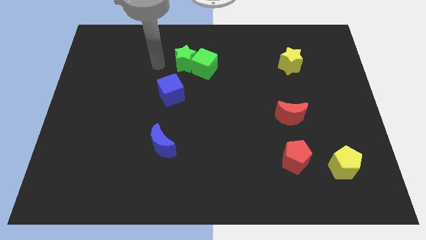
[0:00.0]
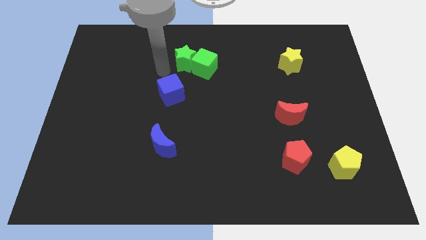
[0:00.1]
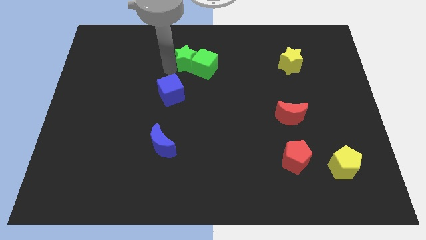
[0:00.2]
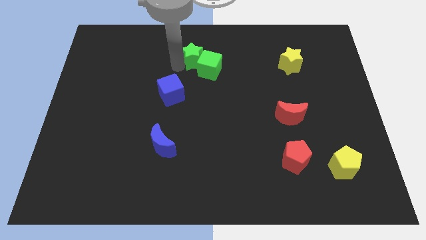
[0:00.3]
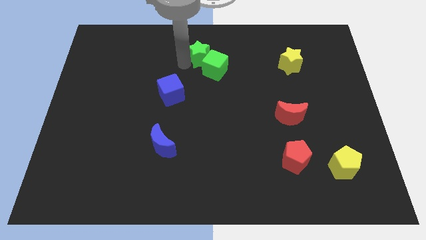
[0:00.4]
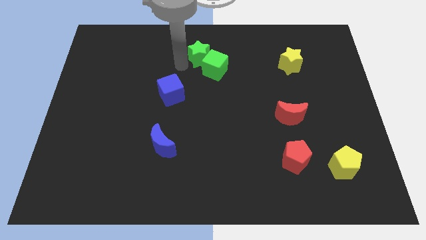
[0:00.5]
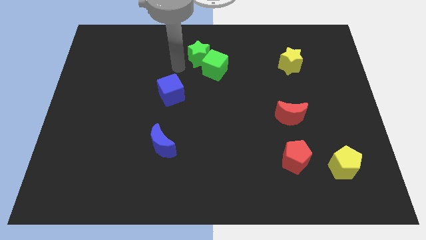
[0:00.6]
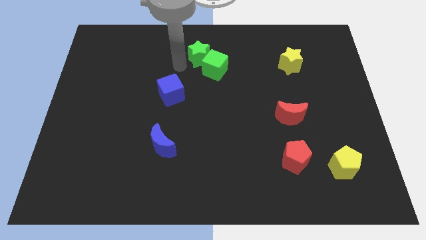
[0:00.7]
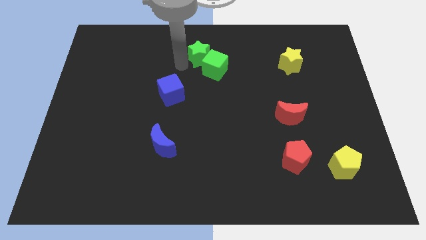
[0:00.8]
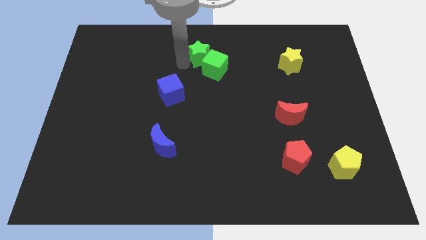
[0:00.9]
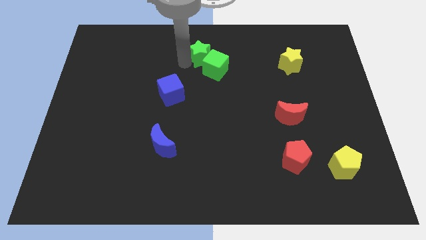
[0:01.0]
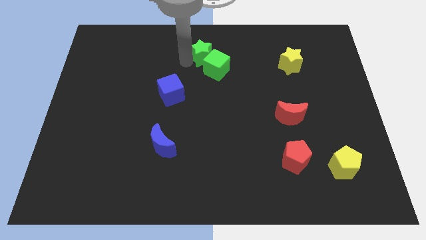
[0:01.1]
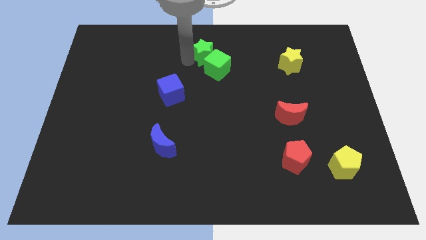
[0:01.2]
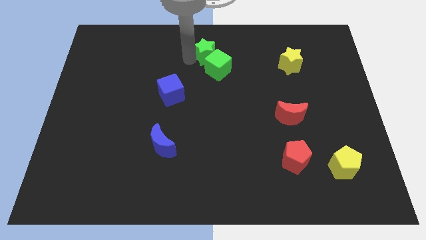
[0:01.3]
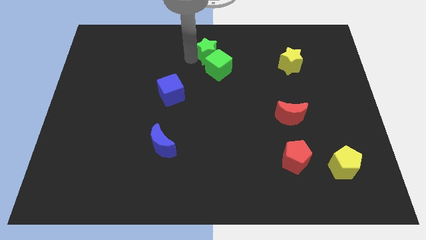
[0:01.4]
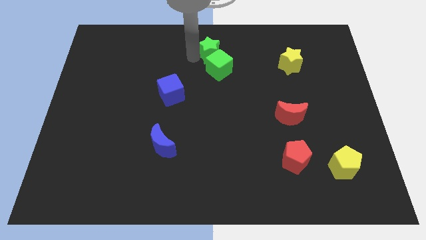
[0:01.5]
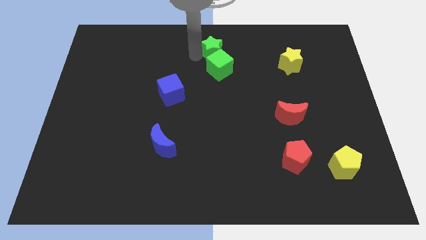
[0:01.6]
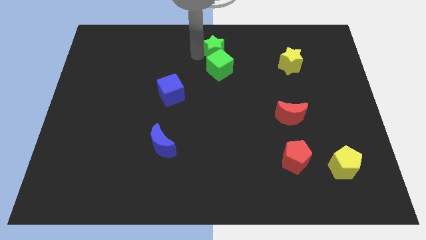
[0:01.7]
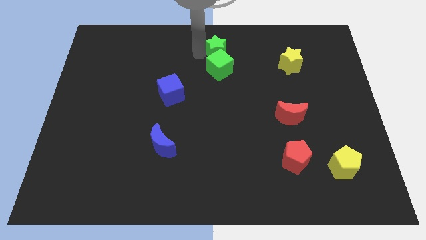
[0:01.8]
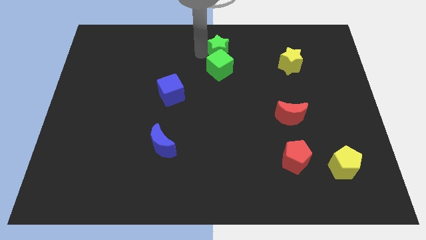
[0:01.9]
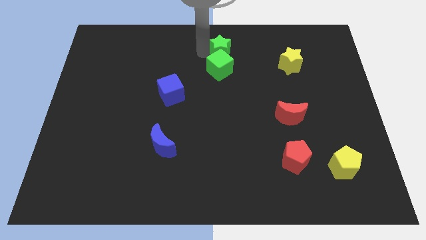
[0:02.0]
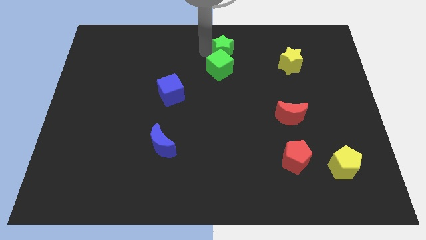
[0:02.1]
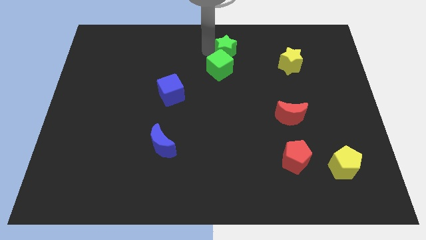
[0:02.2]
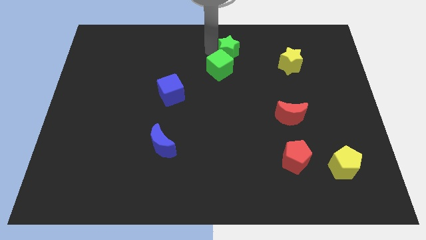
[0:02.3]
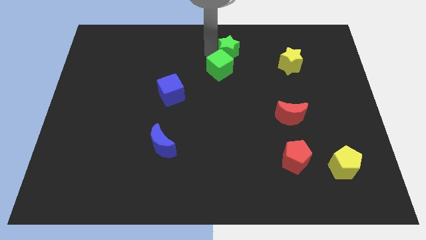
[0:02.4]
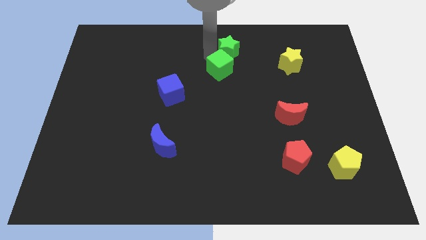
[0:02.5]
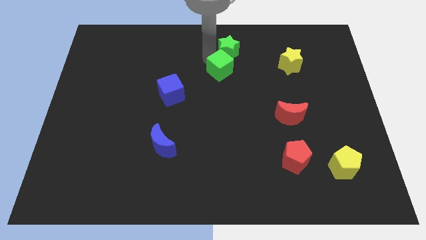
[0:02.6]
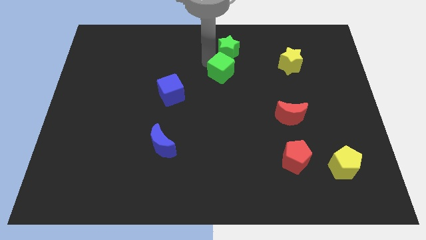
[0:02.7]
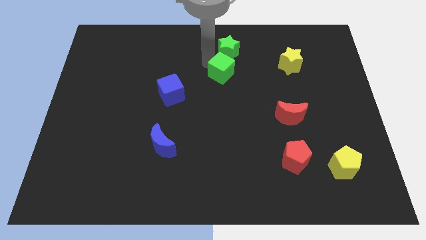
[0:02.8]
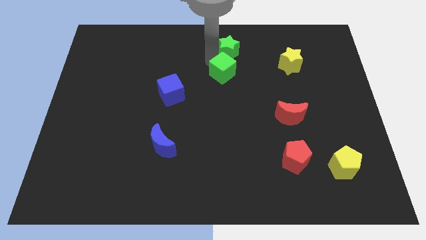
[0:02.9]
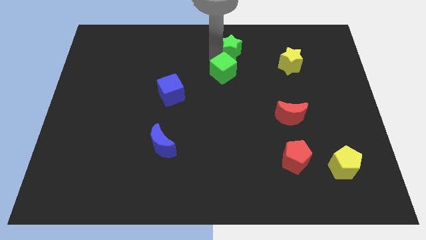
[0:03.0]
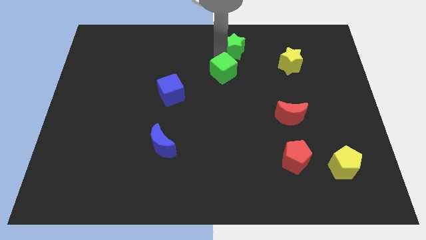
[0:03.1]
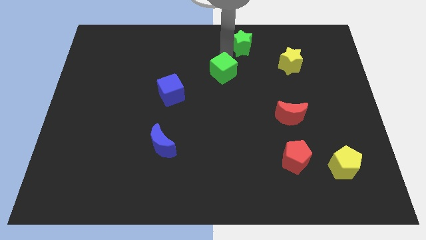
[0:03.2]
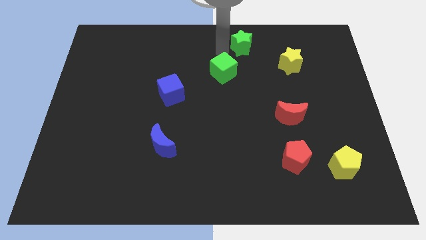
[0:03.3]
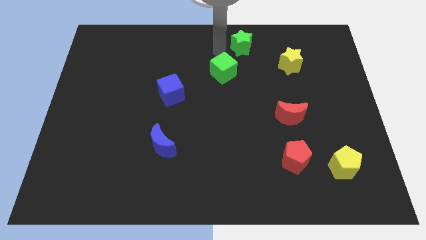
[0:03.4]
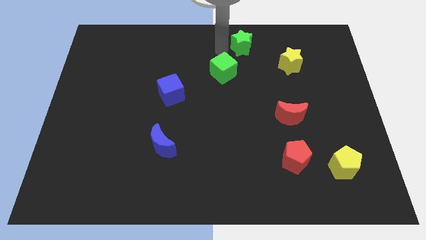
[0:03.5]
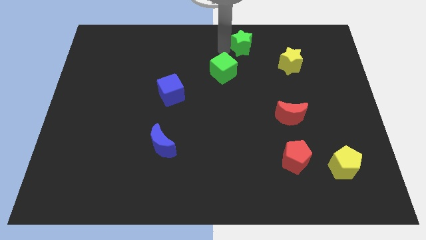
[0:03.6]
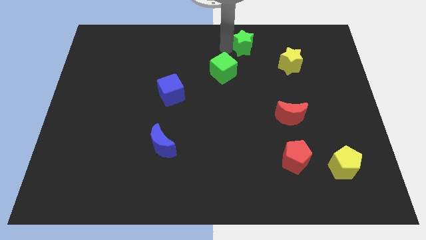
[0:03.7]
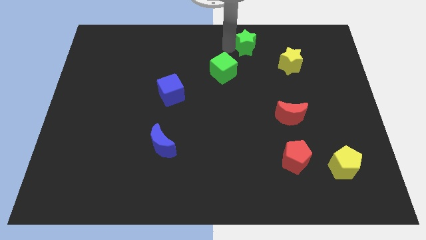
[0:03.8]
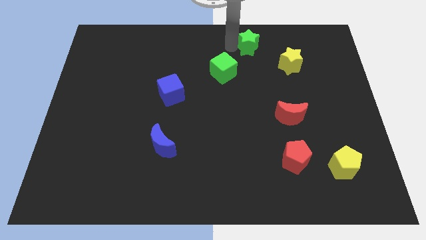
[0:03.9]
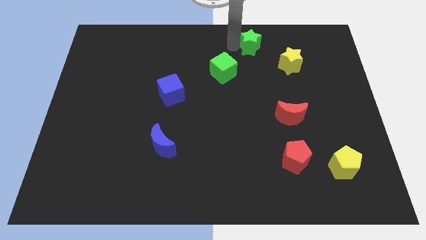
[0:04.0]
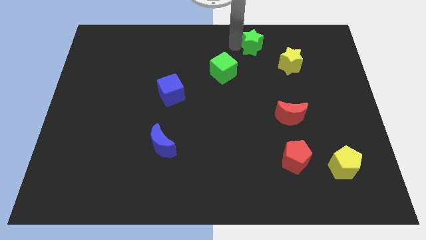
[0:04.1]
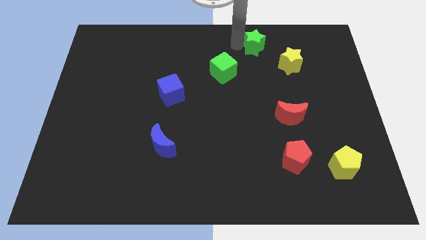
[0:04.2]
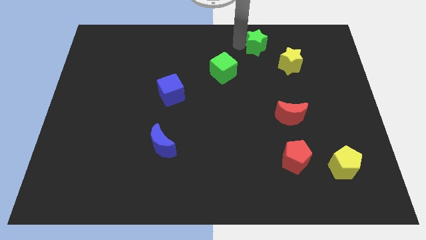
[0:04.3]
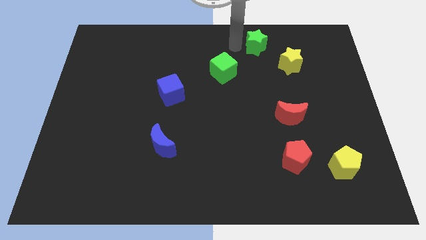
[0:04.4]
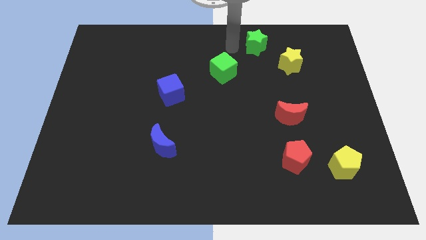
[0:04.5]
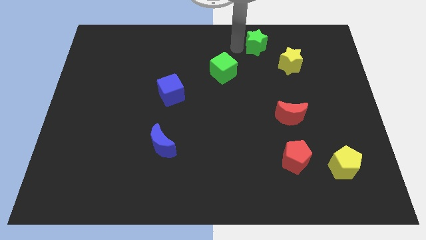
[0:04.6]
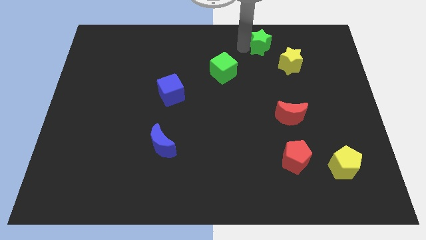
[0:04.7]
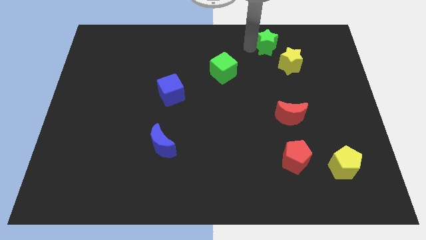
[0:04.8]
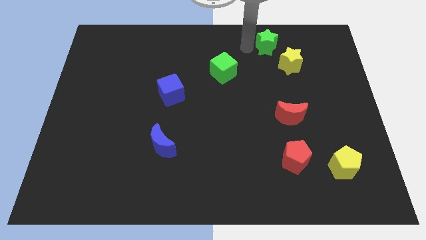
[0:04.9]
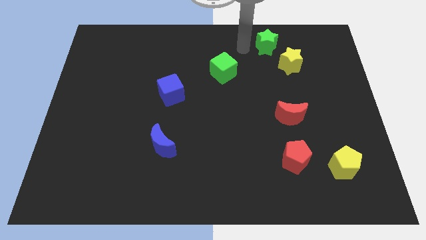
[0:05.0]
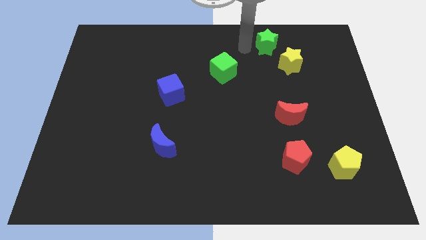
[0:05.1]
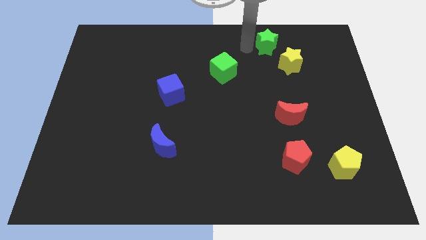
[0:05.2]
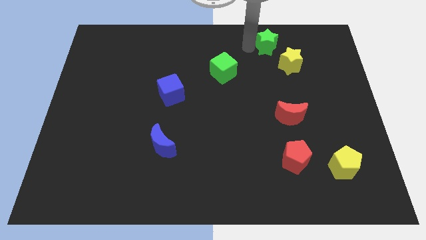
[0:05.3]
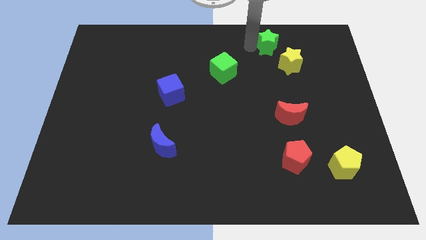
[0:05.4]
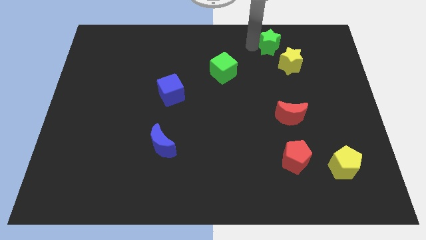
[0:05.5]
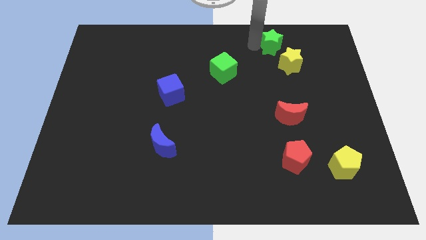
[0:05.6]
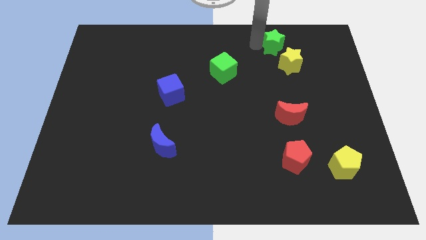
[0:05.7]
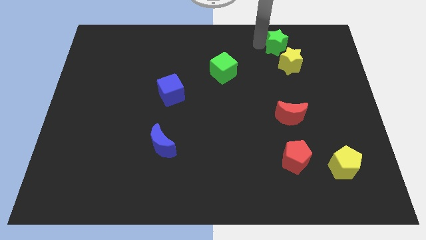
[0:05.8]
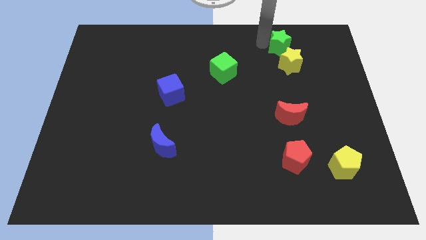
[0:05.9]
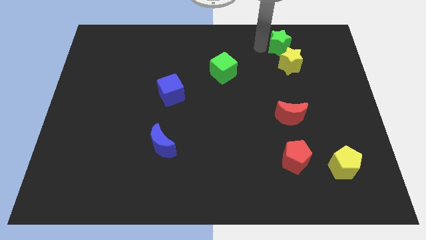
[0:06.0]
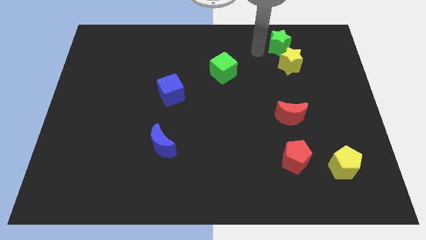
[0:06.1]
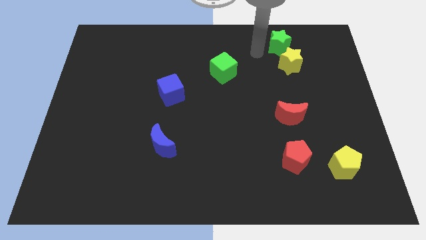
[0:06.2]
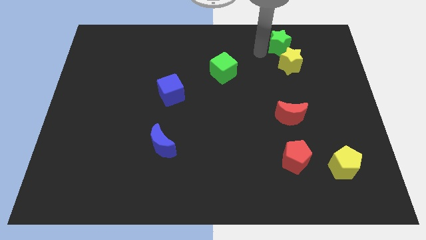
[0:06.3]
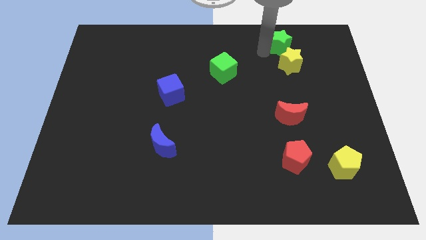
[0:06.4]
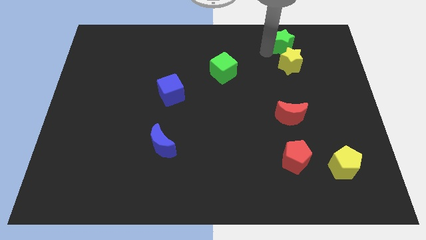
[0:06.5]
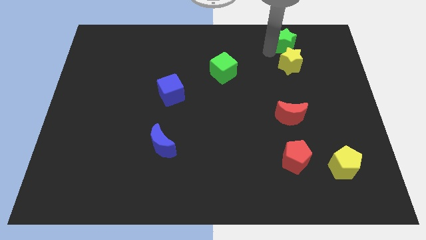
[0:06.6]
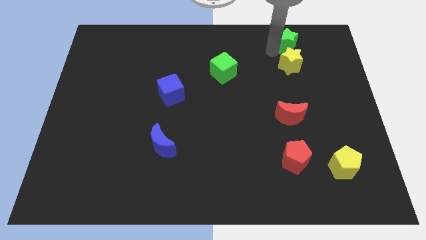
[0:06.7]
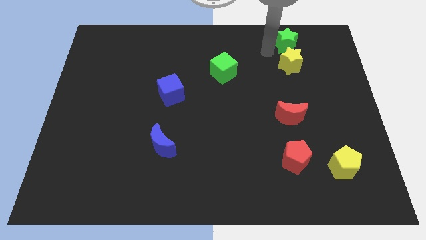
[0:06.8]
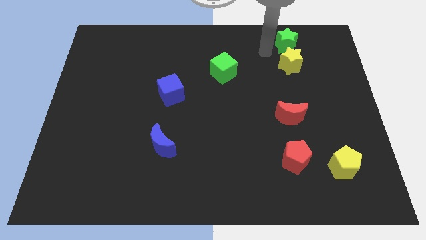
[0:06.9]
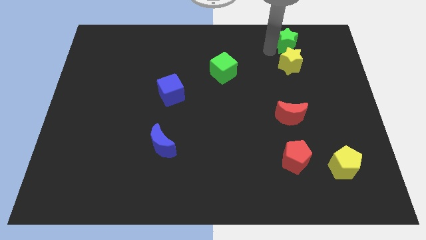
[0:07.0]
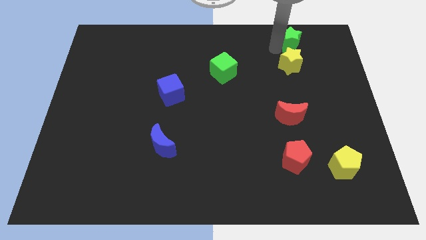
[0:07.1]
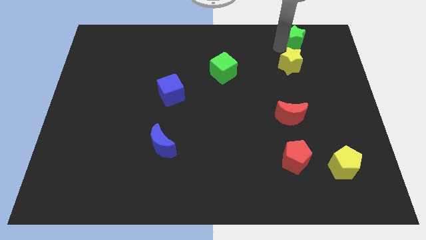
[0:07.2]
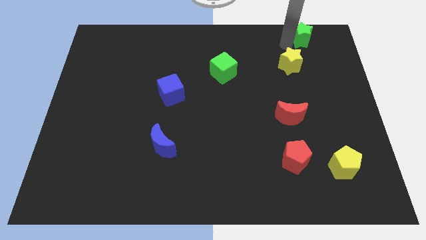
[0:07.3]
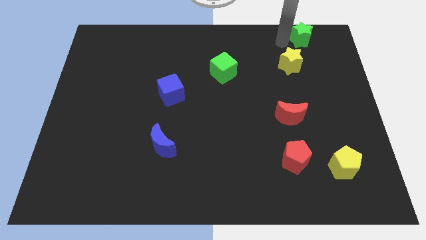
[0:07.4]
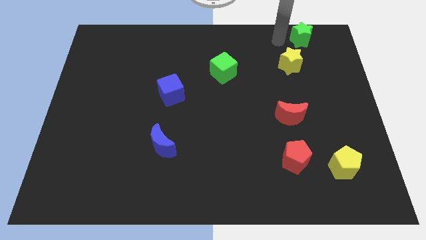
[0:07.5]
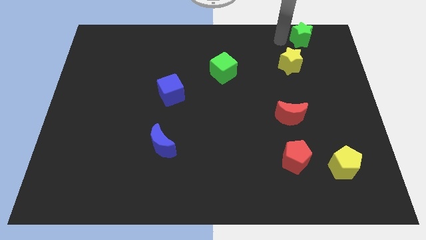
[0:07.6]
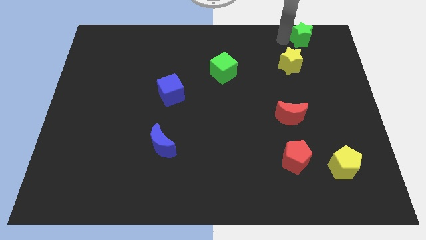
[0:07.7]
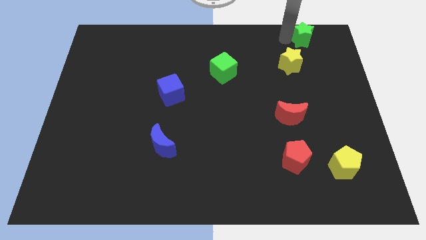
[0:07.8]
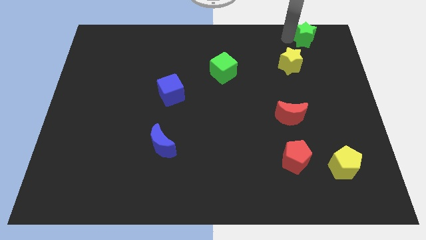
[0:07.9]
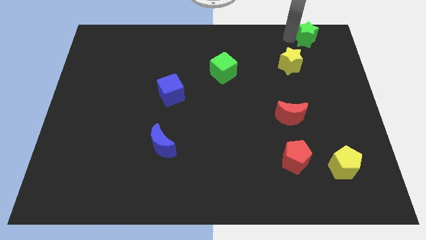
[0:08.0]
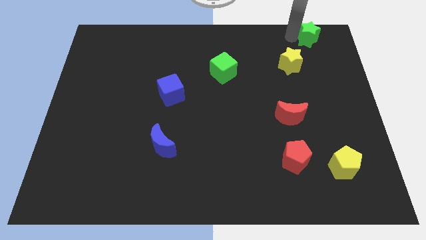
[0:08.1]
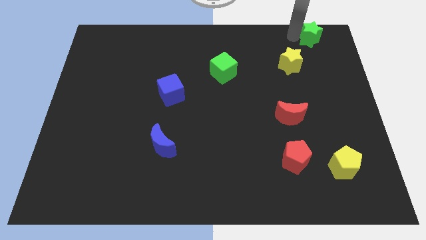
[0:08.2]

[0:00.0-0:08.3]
move the green star to the upper right corner
